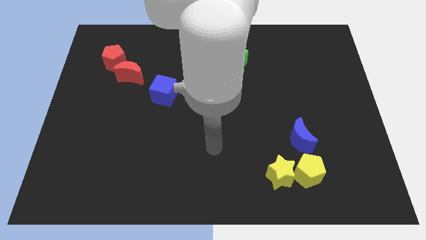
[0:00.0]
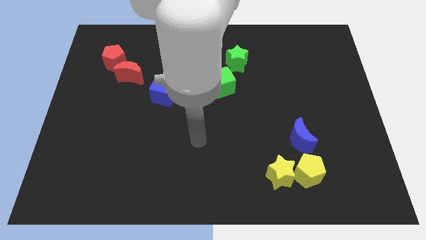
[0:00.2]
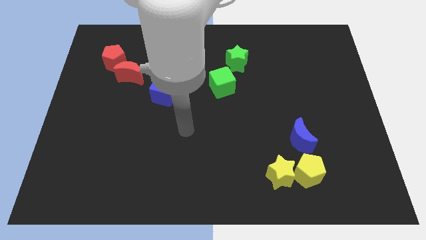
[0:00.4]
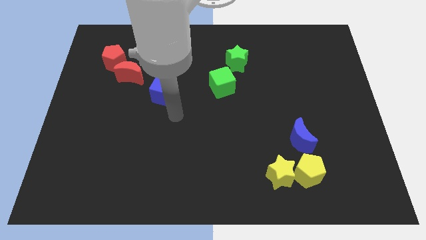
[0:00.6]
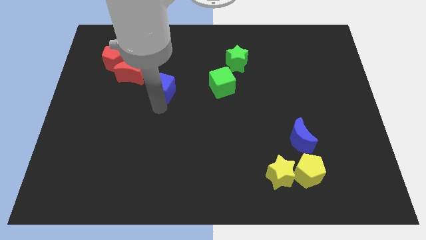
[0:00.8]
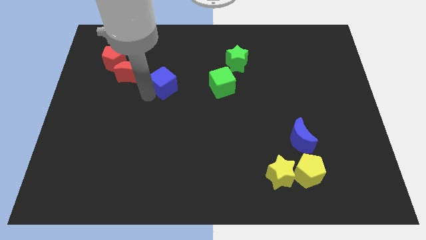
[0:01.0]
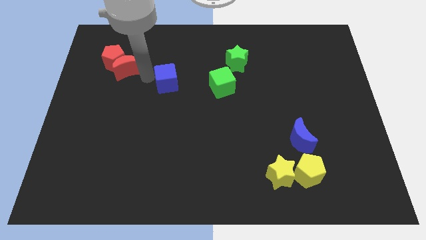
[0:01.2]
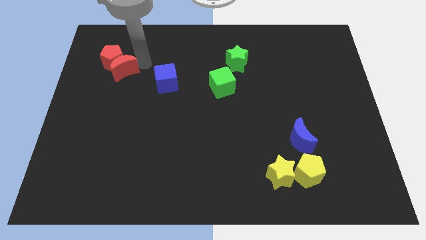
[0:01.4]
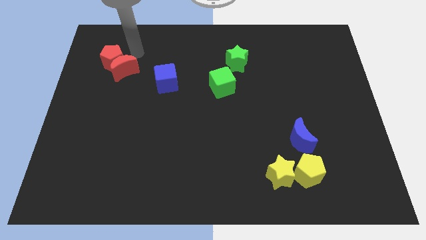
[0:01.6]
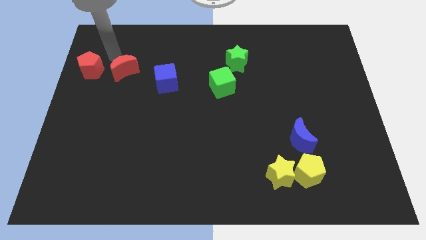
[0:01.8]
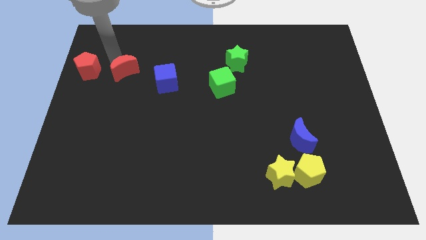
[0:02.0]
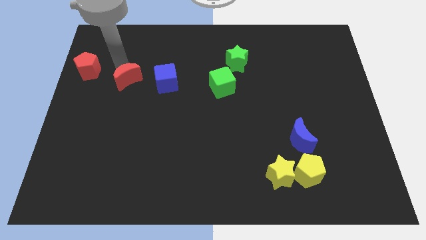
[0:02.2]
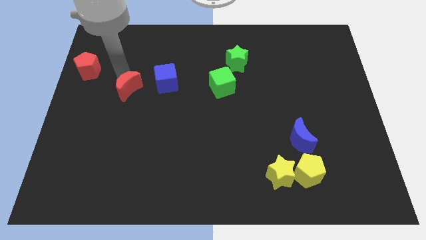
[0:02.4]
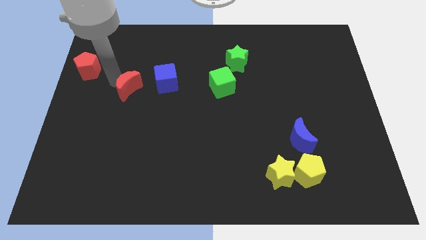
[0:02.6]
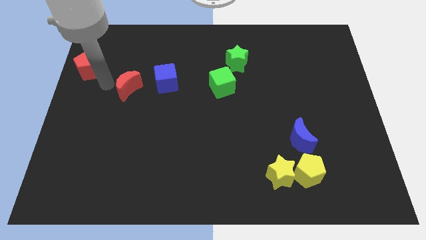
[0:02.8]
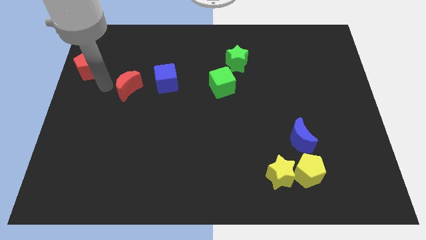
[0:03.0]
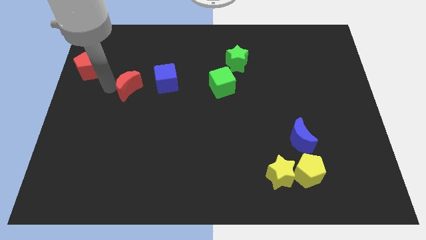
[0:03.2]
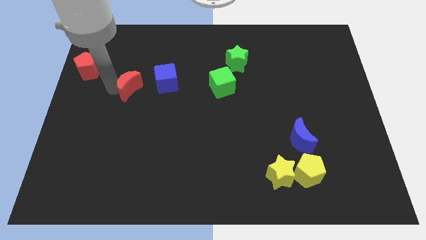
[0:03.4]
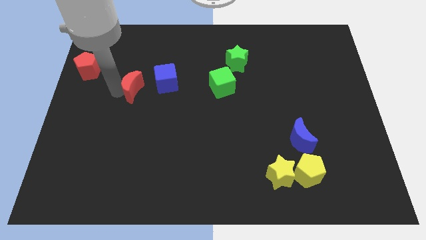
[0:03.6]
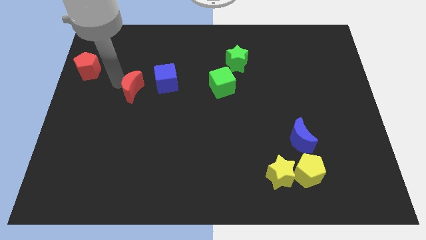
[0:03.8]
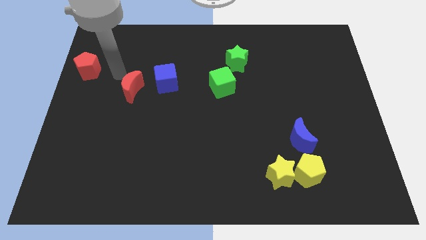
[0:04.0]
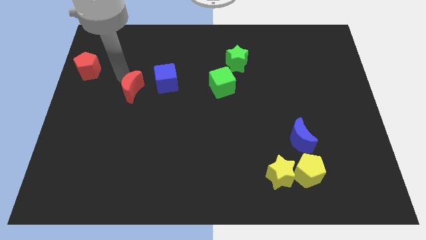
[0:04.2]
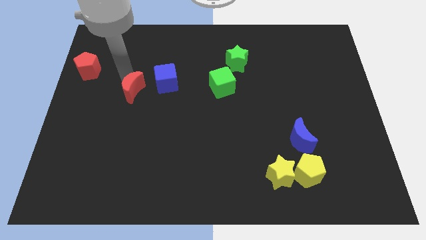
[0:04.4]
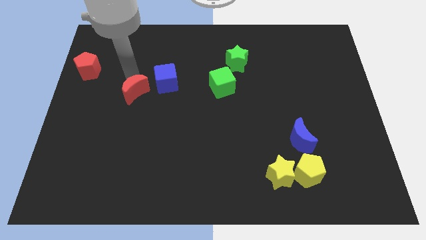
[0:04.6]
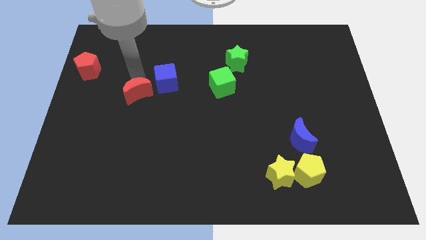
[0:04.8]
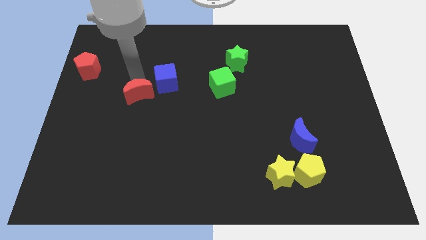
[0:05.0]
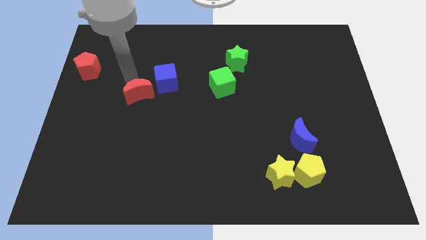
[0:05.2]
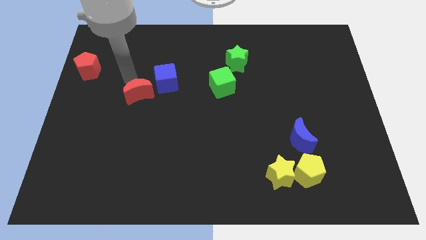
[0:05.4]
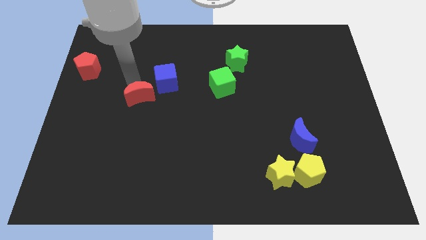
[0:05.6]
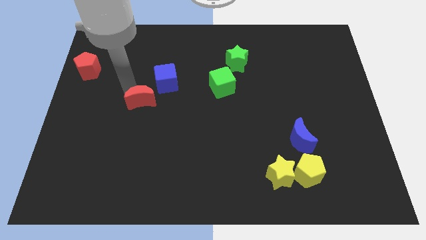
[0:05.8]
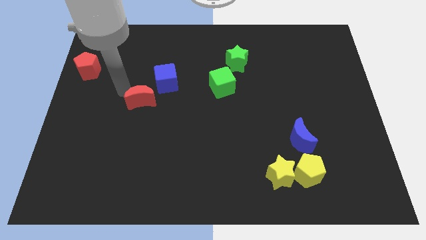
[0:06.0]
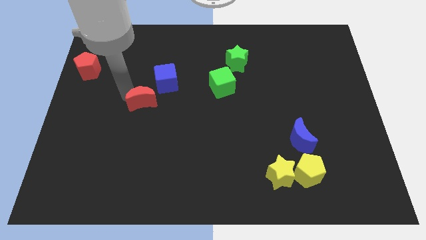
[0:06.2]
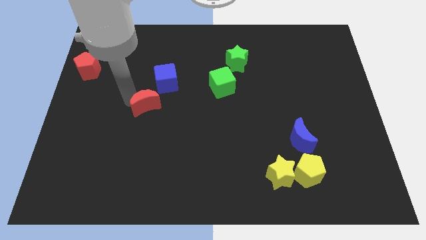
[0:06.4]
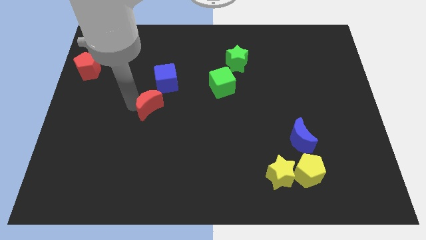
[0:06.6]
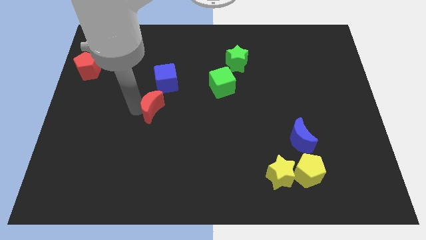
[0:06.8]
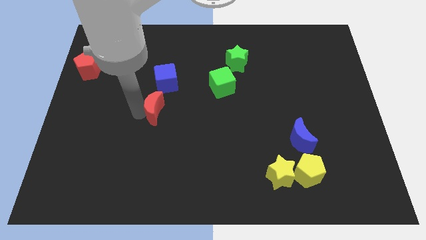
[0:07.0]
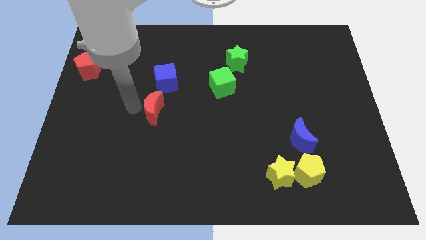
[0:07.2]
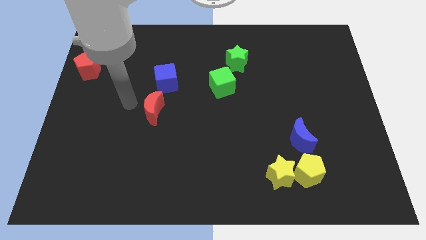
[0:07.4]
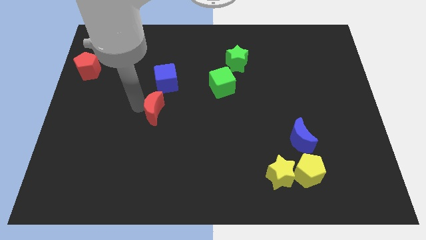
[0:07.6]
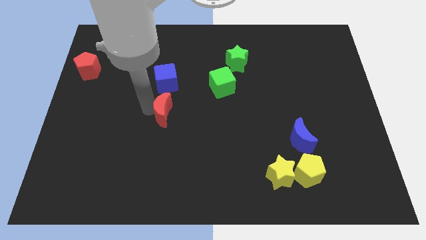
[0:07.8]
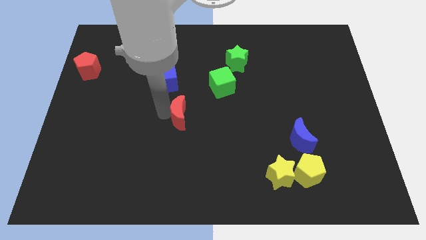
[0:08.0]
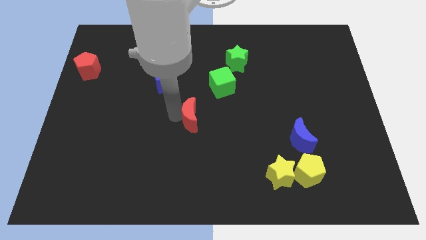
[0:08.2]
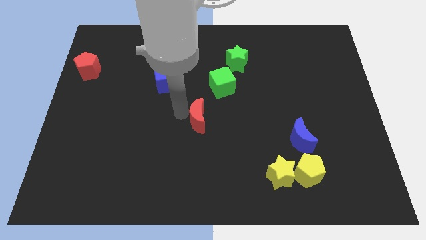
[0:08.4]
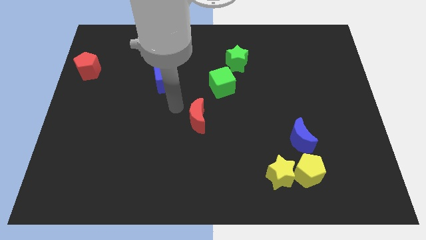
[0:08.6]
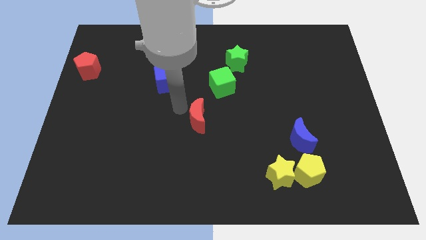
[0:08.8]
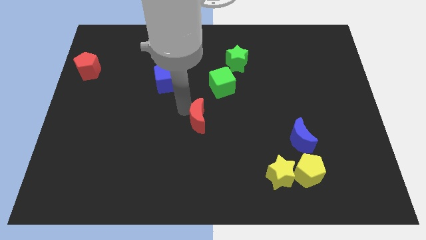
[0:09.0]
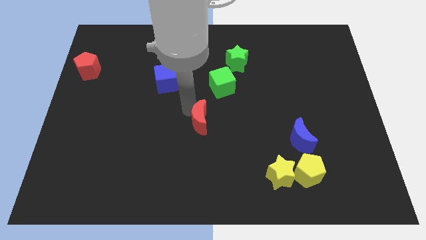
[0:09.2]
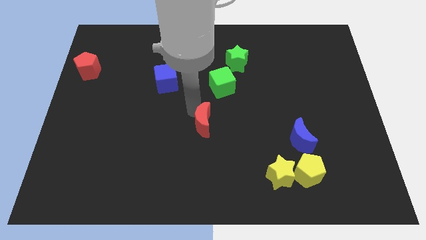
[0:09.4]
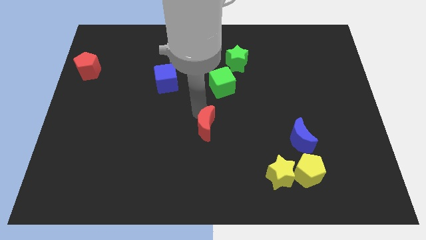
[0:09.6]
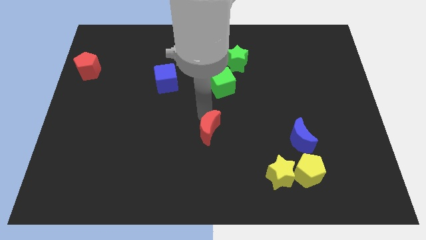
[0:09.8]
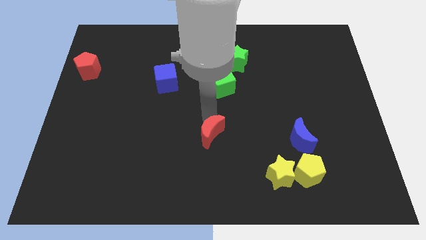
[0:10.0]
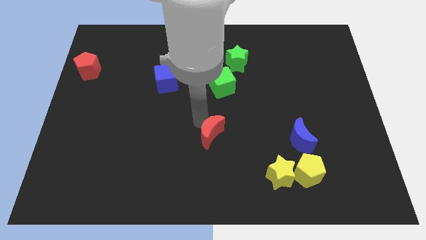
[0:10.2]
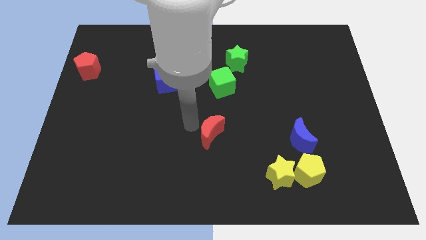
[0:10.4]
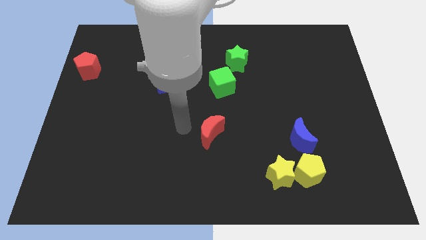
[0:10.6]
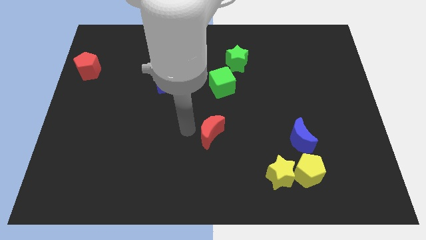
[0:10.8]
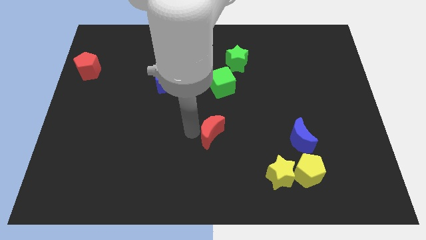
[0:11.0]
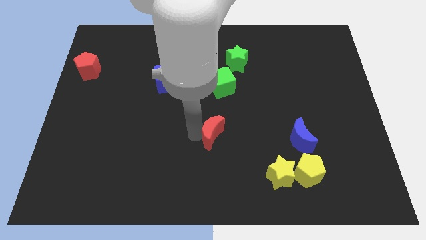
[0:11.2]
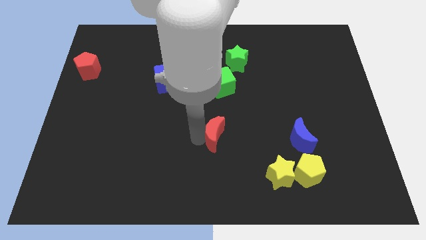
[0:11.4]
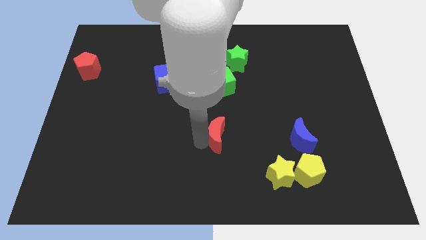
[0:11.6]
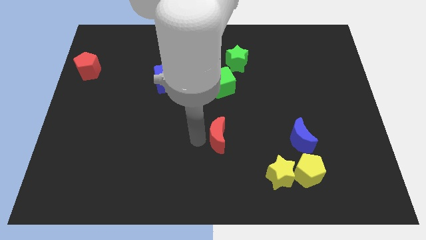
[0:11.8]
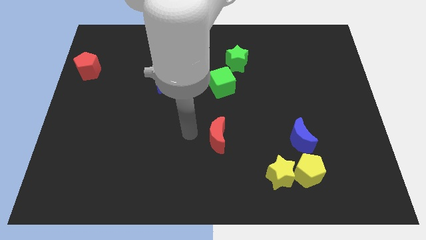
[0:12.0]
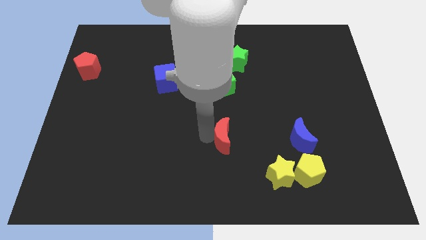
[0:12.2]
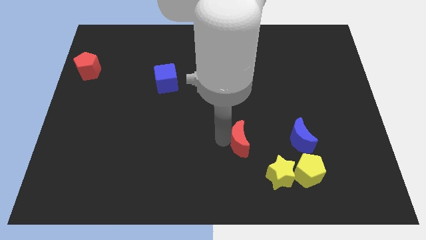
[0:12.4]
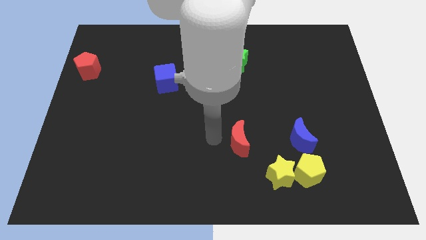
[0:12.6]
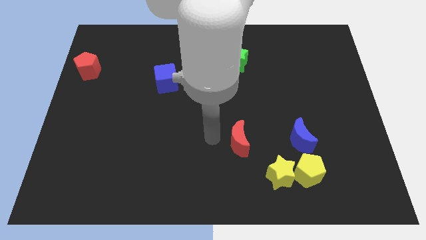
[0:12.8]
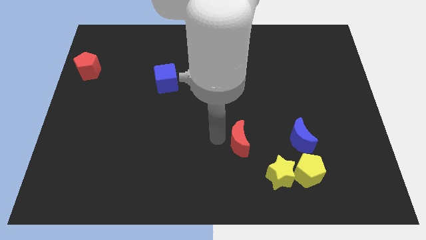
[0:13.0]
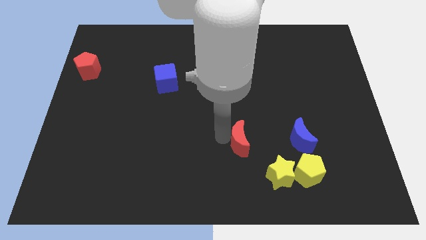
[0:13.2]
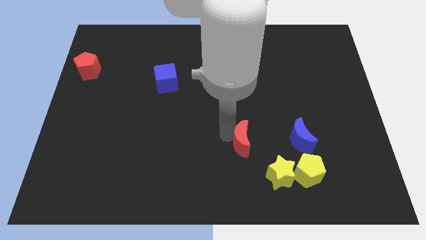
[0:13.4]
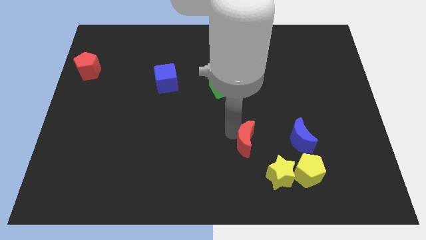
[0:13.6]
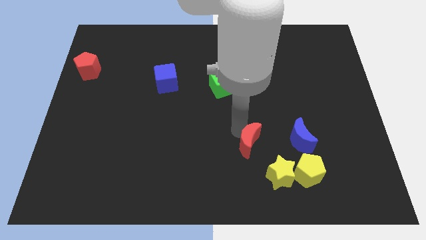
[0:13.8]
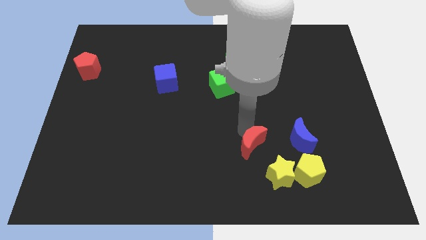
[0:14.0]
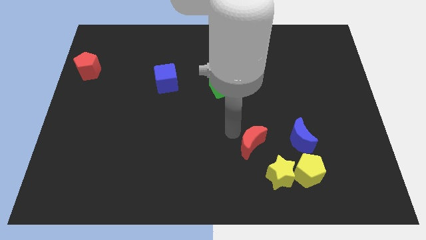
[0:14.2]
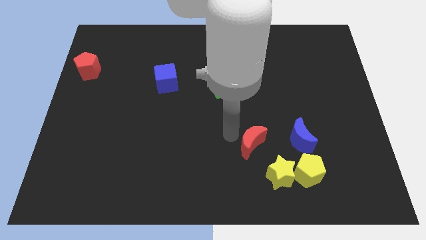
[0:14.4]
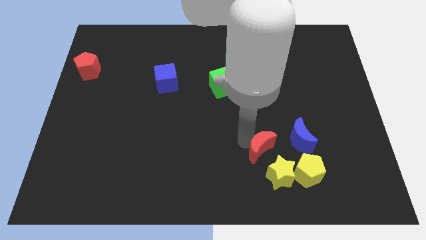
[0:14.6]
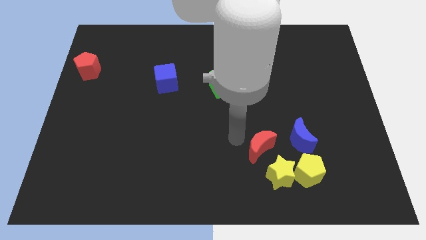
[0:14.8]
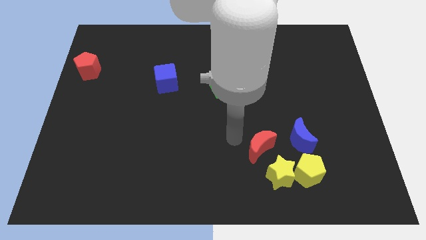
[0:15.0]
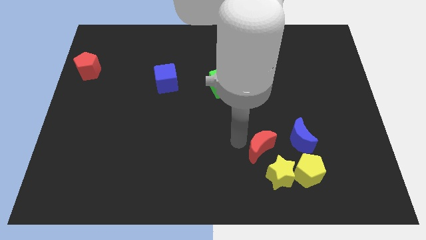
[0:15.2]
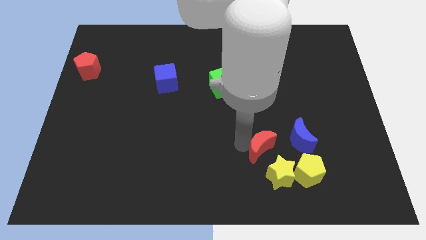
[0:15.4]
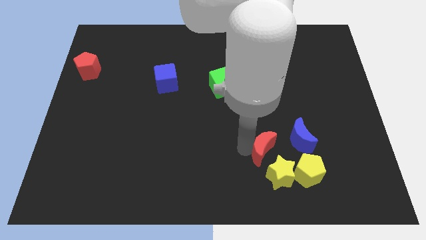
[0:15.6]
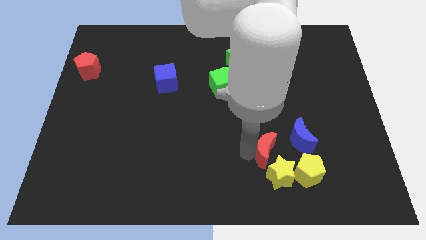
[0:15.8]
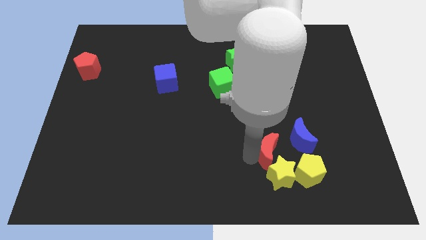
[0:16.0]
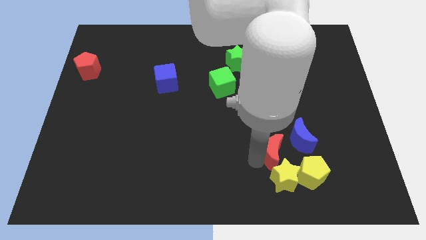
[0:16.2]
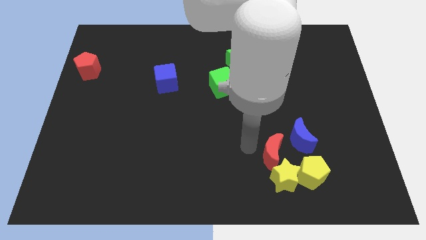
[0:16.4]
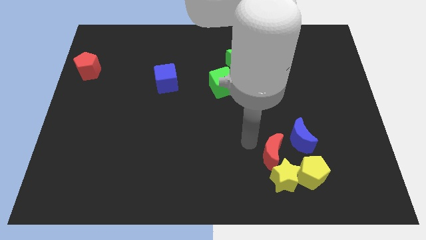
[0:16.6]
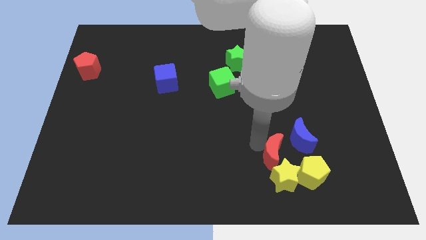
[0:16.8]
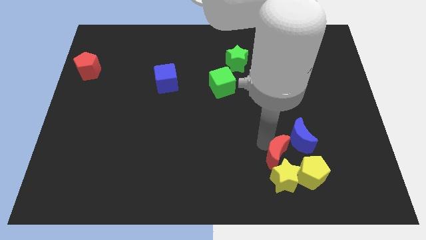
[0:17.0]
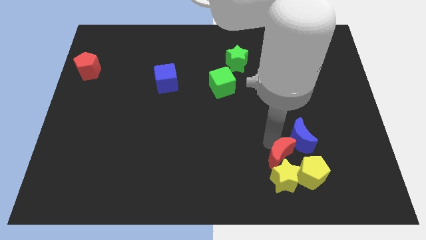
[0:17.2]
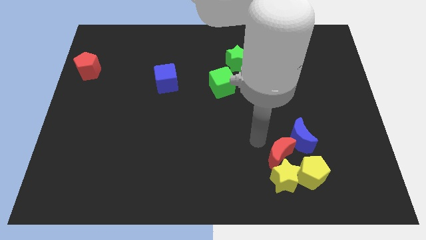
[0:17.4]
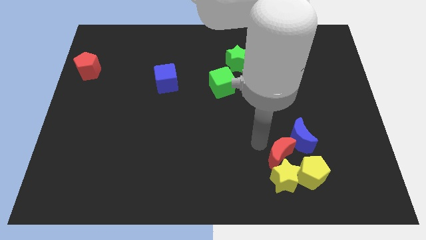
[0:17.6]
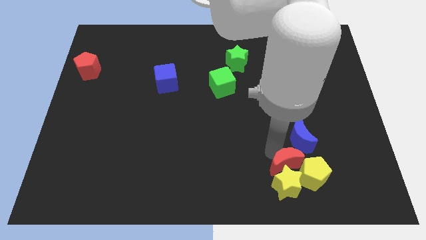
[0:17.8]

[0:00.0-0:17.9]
move the red moon next to the yellow pentagon
